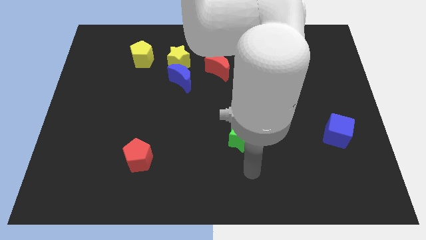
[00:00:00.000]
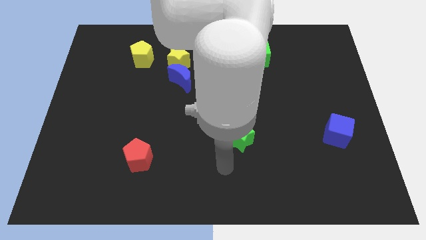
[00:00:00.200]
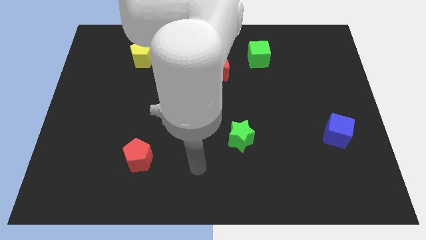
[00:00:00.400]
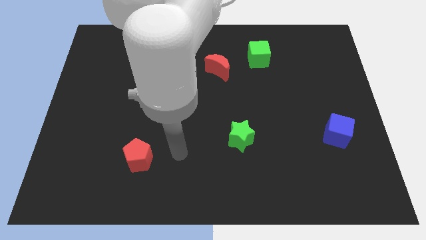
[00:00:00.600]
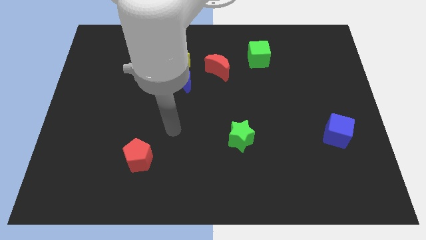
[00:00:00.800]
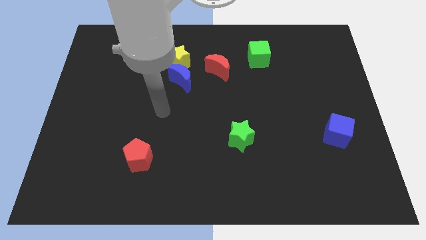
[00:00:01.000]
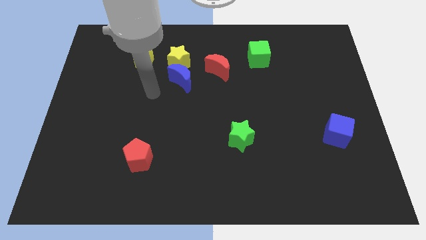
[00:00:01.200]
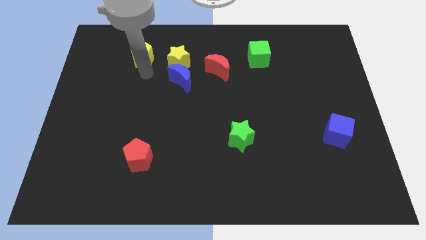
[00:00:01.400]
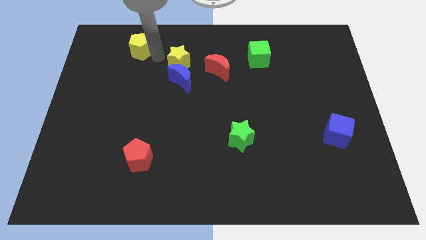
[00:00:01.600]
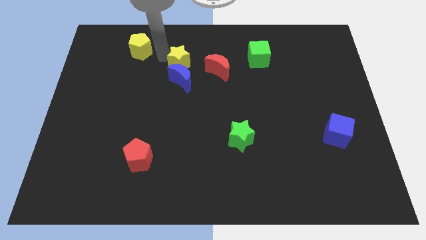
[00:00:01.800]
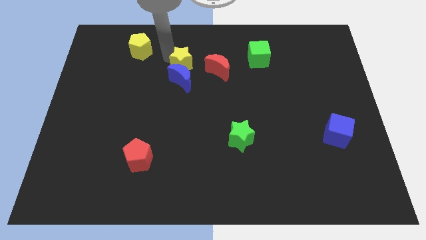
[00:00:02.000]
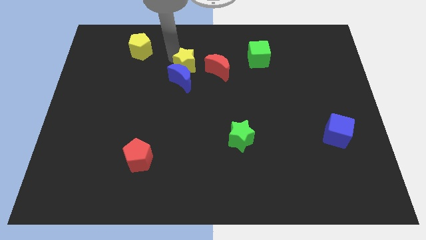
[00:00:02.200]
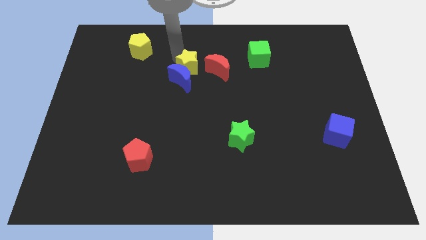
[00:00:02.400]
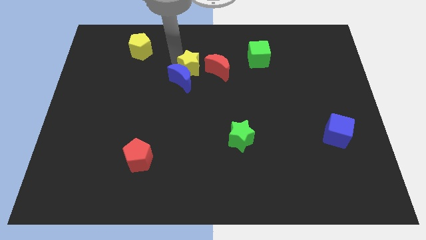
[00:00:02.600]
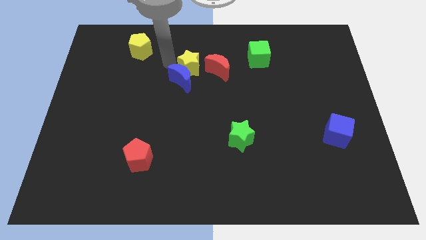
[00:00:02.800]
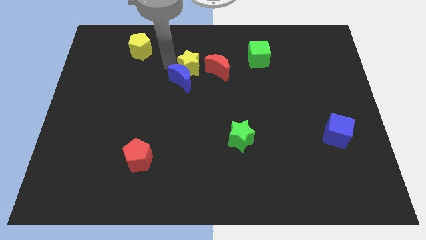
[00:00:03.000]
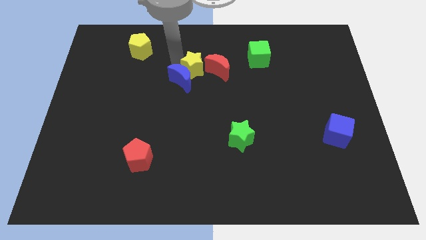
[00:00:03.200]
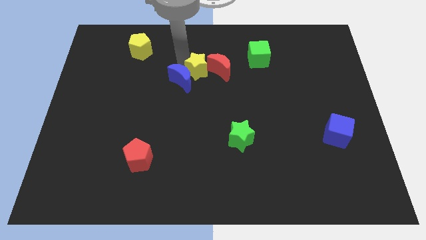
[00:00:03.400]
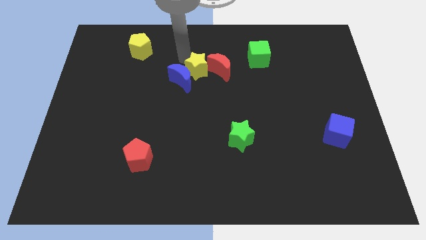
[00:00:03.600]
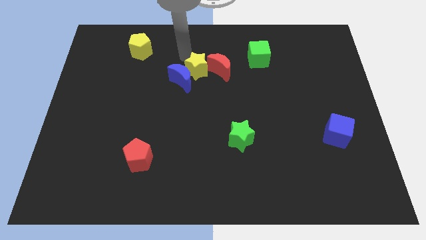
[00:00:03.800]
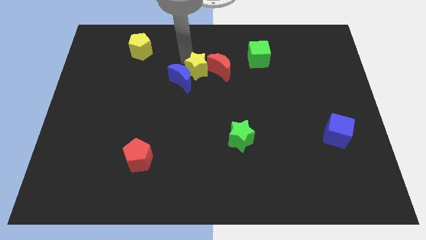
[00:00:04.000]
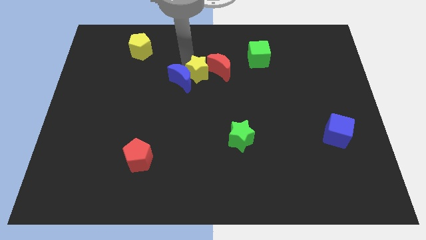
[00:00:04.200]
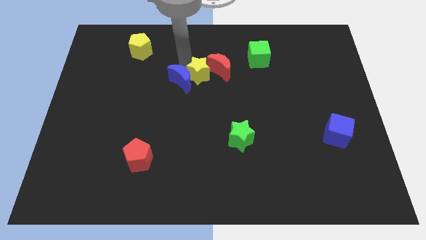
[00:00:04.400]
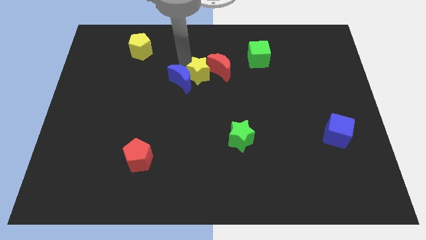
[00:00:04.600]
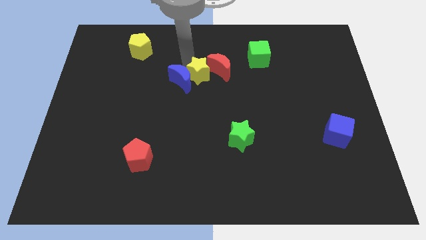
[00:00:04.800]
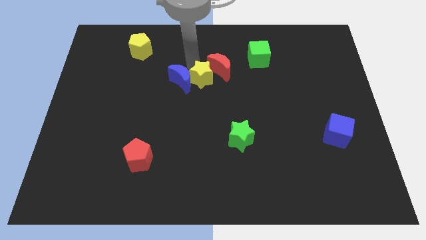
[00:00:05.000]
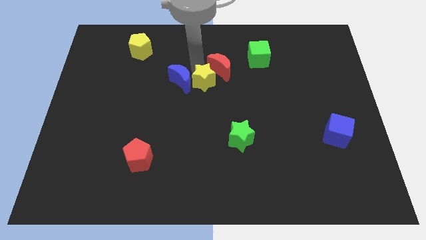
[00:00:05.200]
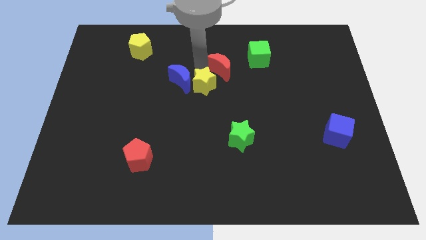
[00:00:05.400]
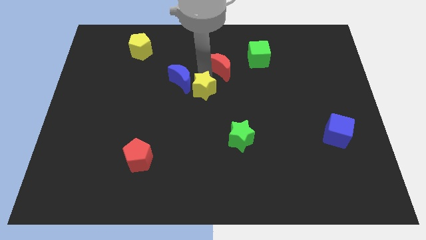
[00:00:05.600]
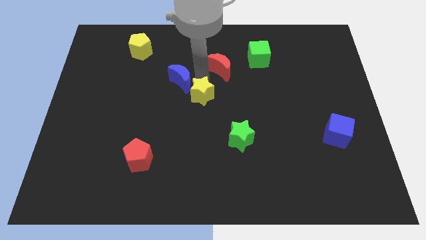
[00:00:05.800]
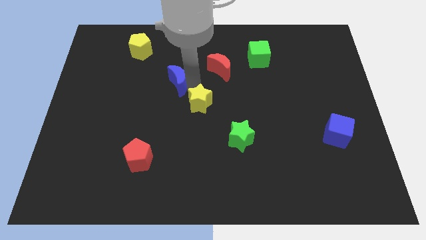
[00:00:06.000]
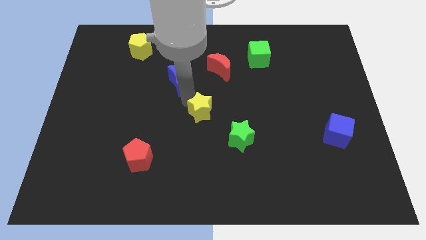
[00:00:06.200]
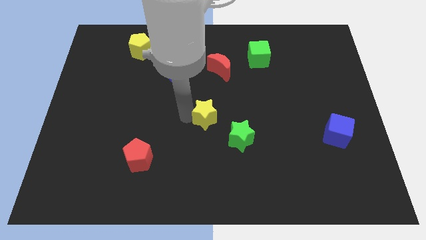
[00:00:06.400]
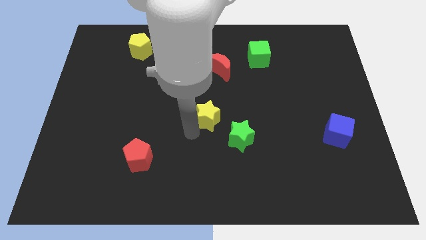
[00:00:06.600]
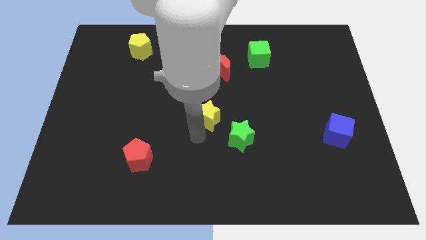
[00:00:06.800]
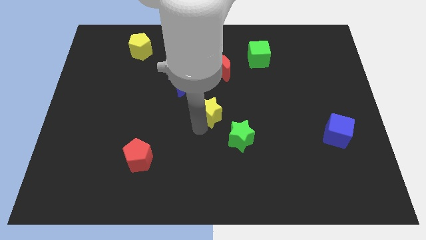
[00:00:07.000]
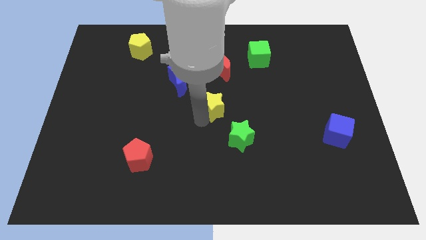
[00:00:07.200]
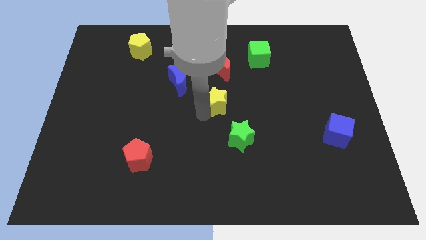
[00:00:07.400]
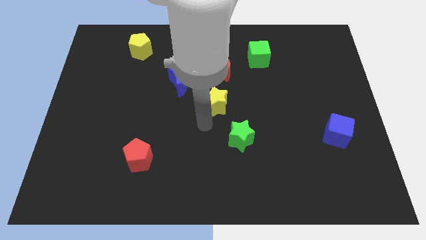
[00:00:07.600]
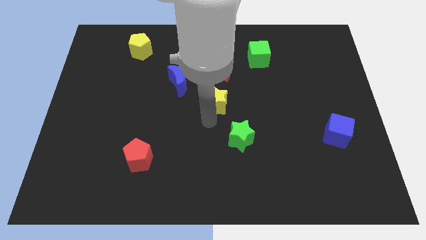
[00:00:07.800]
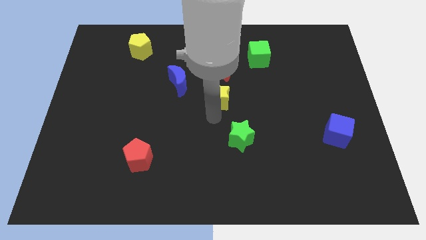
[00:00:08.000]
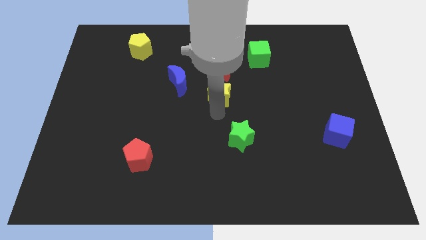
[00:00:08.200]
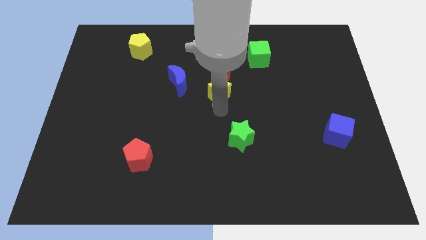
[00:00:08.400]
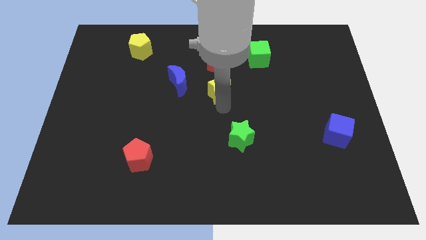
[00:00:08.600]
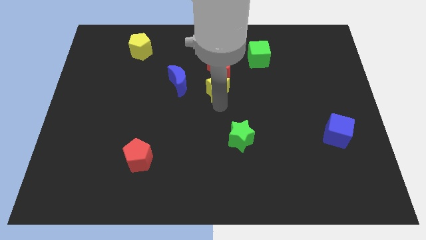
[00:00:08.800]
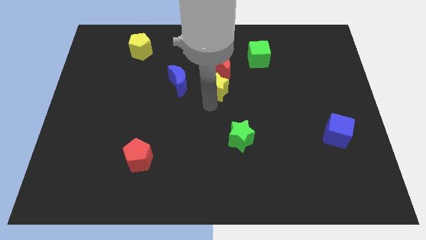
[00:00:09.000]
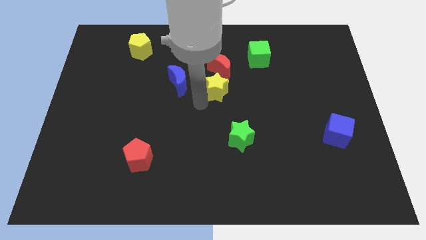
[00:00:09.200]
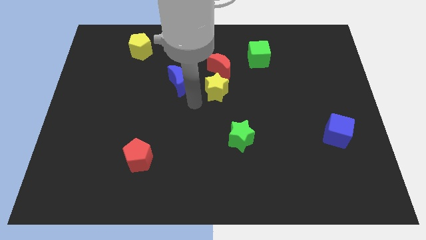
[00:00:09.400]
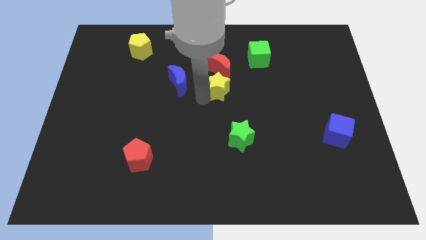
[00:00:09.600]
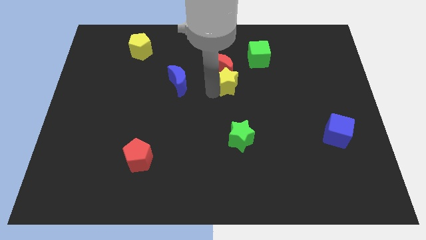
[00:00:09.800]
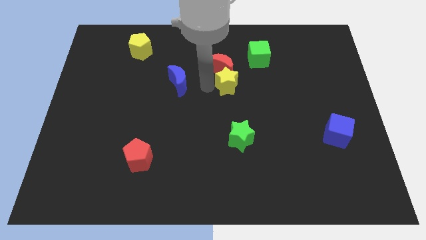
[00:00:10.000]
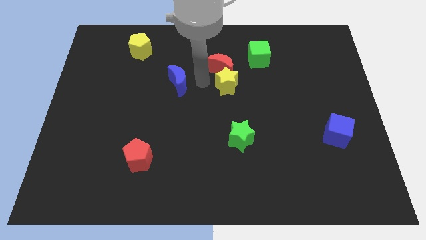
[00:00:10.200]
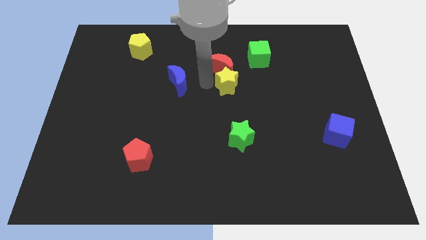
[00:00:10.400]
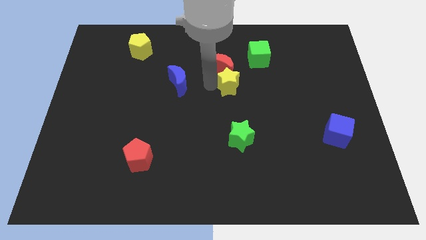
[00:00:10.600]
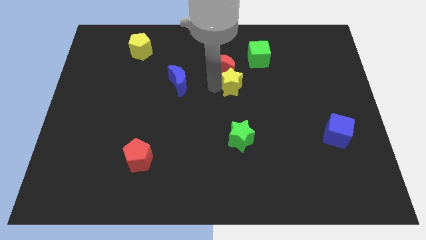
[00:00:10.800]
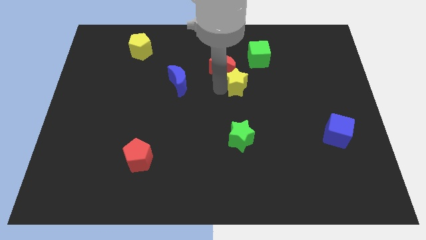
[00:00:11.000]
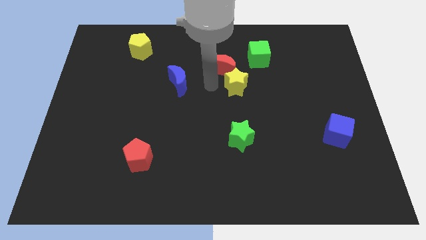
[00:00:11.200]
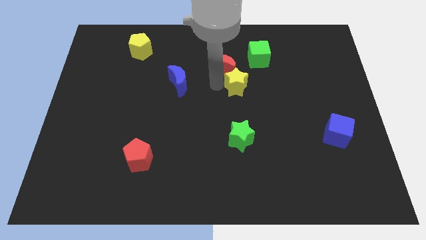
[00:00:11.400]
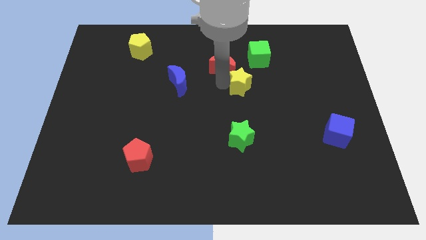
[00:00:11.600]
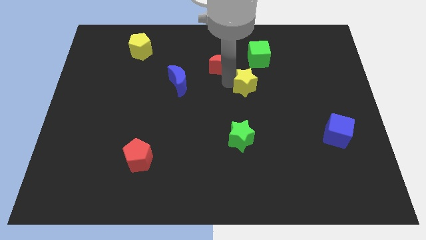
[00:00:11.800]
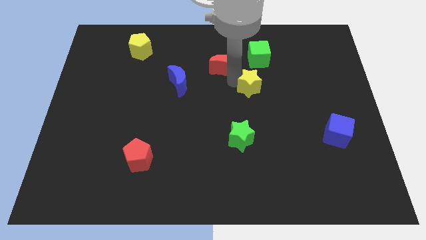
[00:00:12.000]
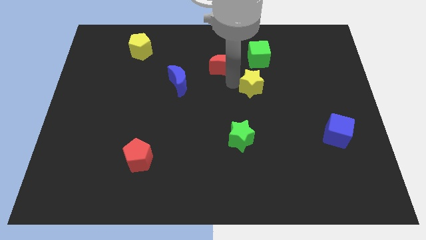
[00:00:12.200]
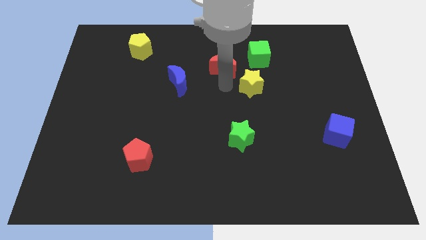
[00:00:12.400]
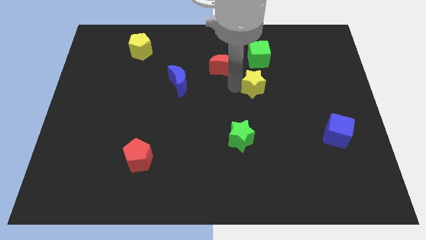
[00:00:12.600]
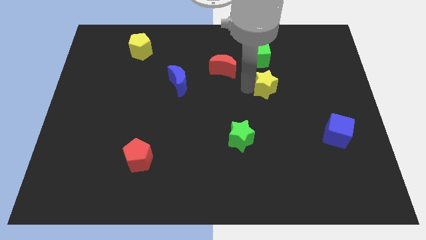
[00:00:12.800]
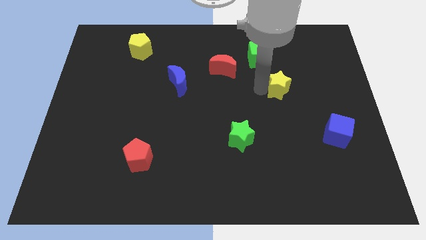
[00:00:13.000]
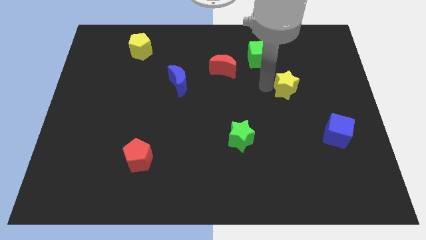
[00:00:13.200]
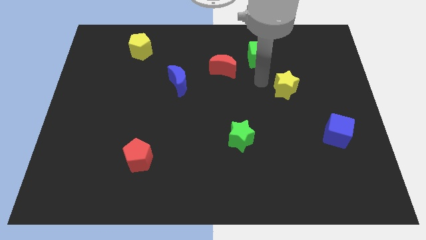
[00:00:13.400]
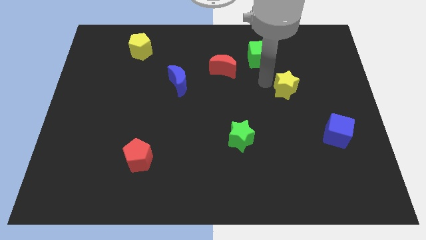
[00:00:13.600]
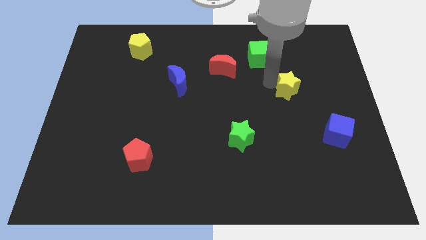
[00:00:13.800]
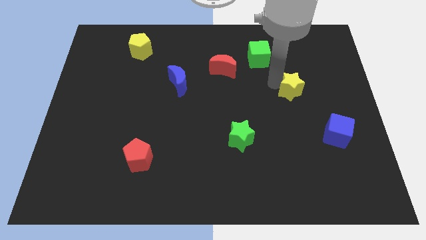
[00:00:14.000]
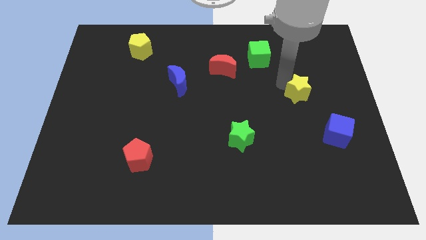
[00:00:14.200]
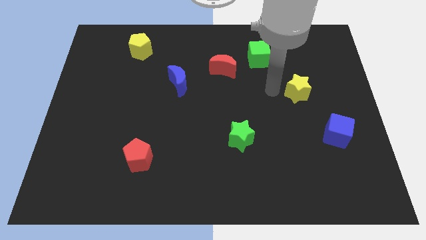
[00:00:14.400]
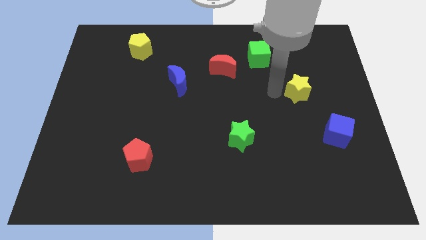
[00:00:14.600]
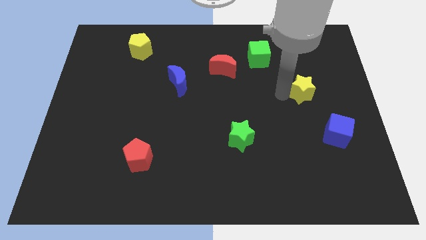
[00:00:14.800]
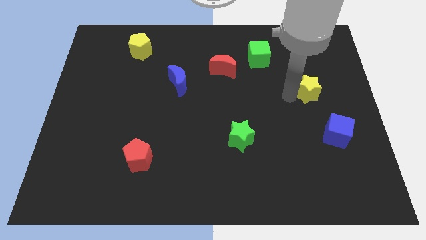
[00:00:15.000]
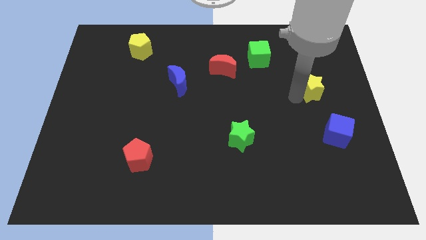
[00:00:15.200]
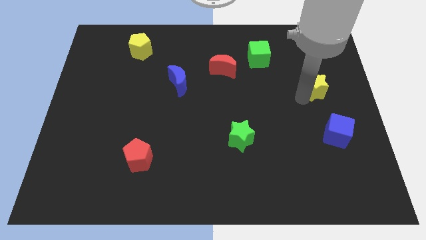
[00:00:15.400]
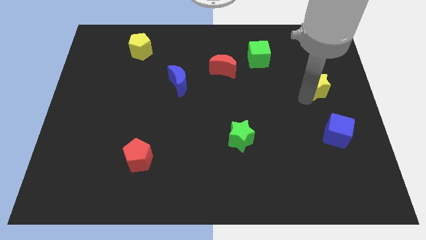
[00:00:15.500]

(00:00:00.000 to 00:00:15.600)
put the yellow star to the right side
